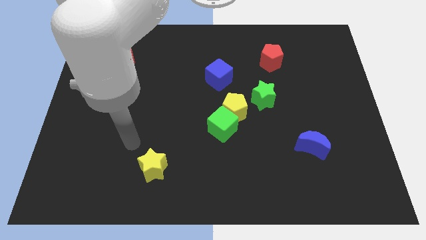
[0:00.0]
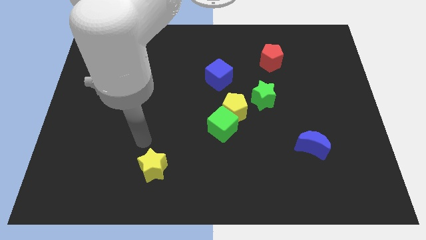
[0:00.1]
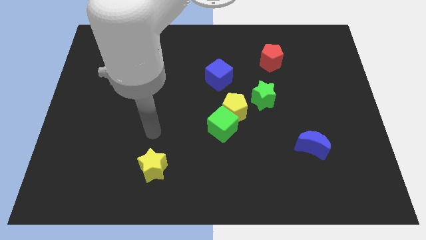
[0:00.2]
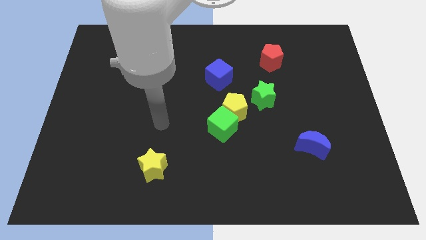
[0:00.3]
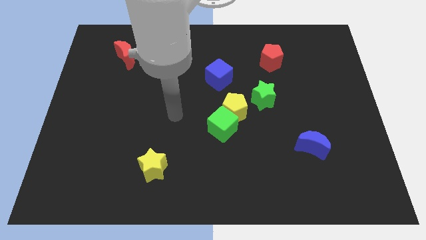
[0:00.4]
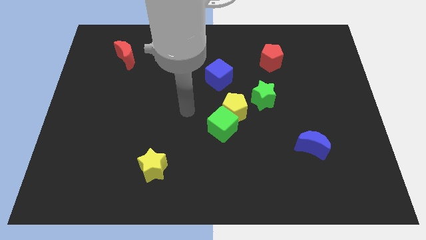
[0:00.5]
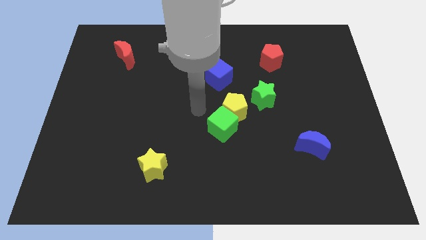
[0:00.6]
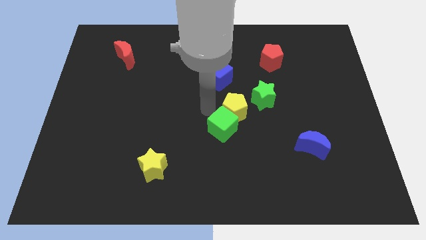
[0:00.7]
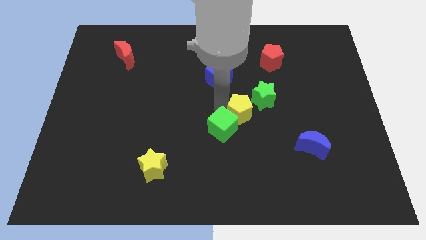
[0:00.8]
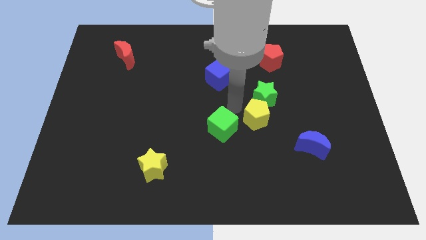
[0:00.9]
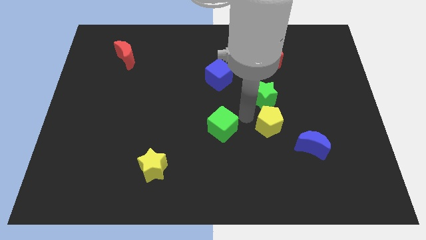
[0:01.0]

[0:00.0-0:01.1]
move the green cube away from the yellow pentagon

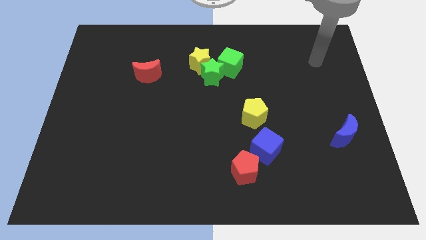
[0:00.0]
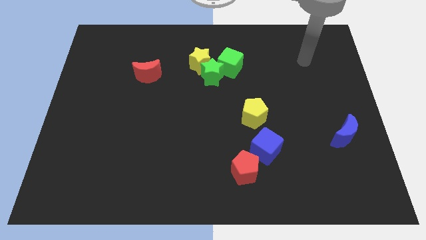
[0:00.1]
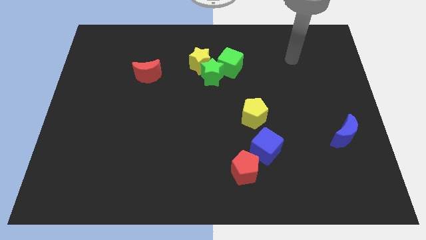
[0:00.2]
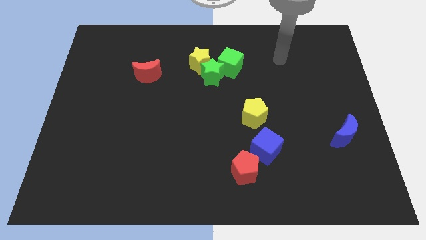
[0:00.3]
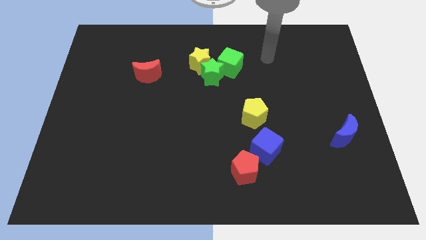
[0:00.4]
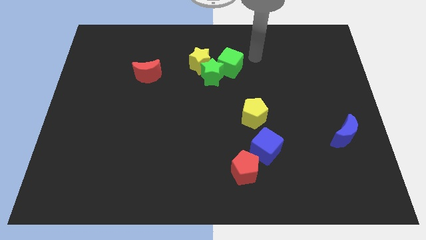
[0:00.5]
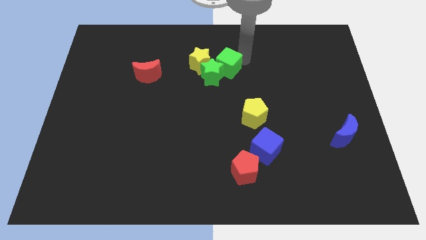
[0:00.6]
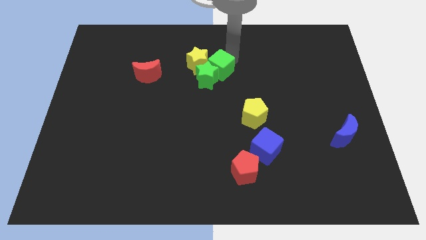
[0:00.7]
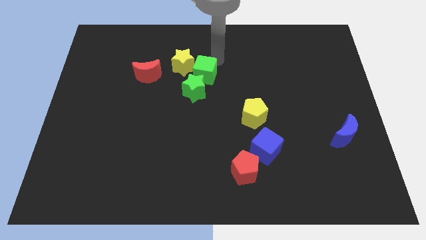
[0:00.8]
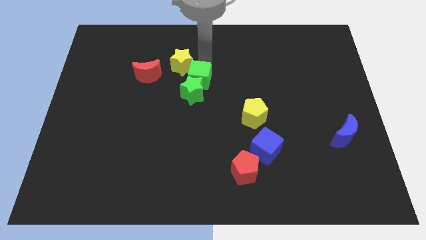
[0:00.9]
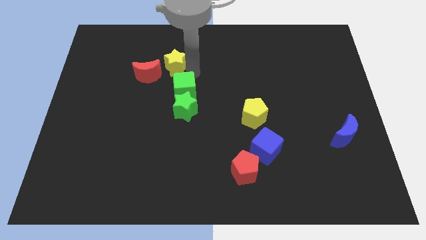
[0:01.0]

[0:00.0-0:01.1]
pull the green star apart from the yellow star and green cube

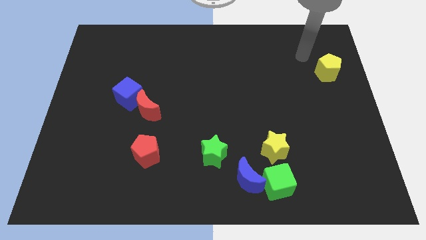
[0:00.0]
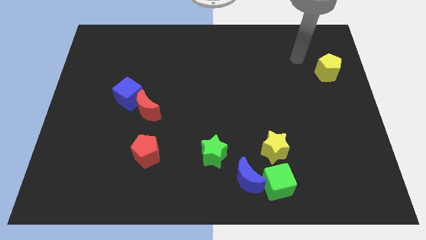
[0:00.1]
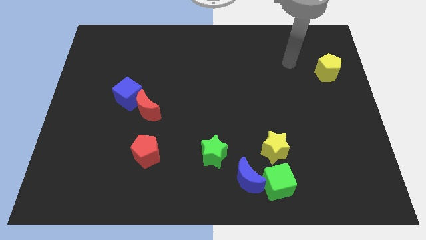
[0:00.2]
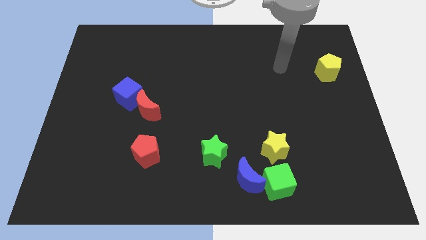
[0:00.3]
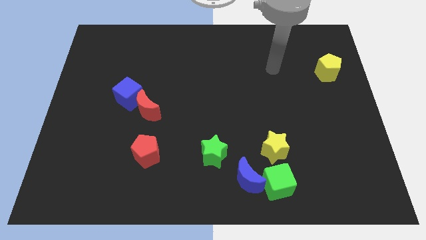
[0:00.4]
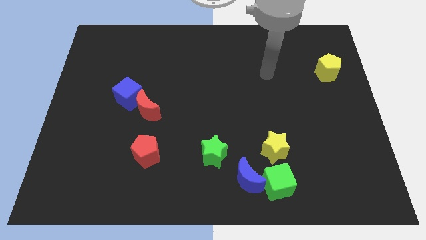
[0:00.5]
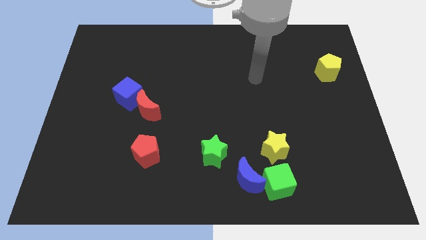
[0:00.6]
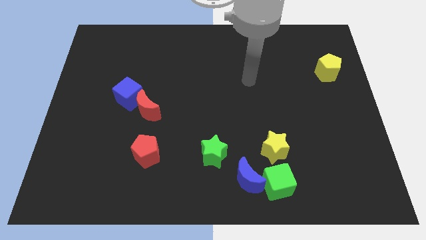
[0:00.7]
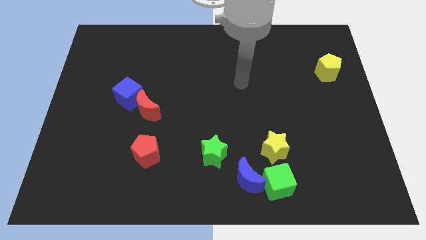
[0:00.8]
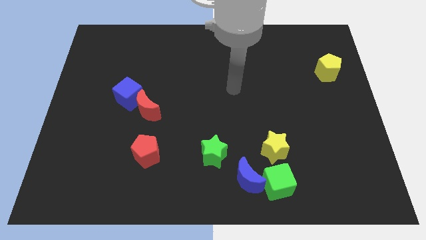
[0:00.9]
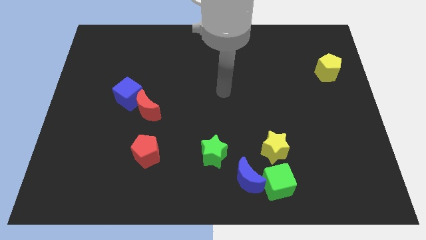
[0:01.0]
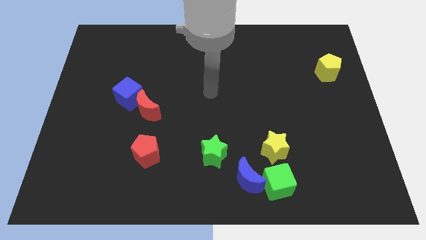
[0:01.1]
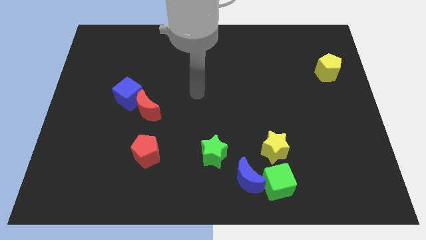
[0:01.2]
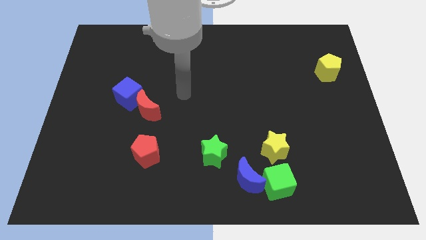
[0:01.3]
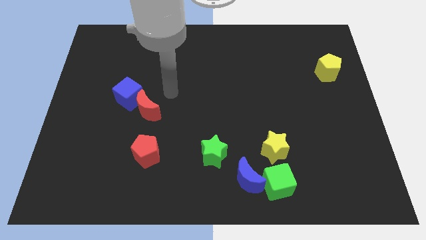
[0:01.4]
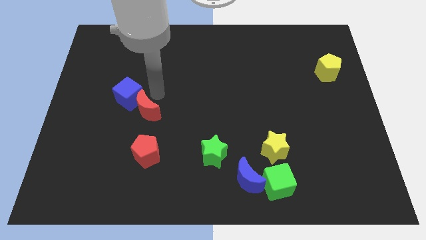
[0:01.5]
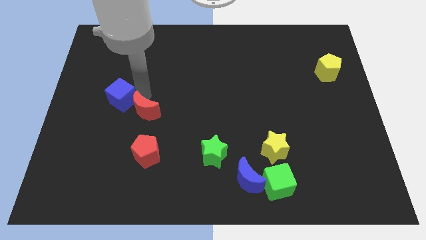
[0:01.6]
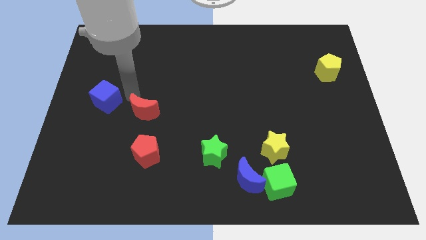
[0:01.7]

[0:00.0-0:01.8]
separate the red moon from the blue cube

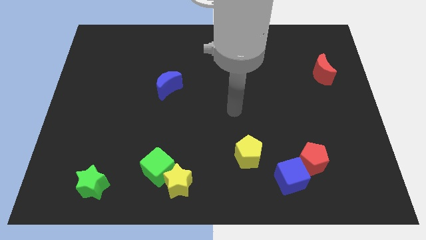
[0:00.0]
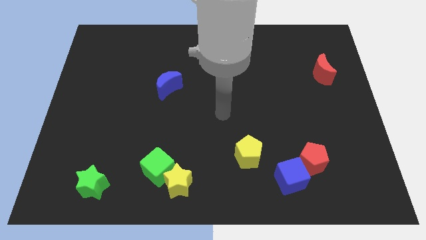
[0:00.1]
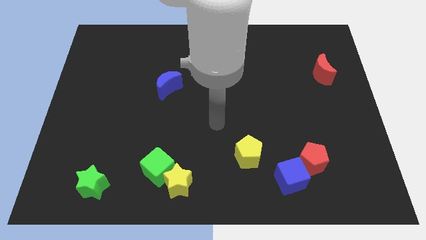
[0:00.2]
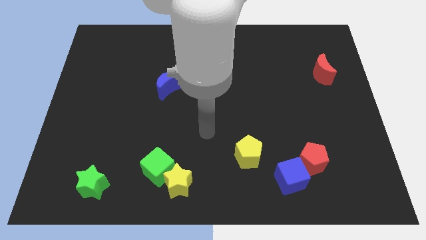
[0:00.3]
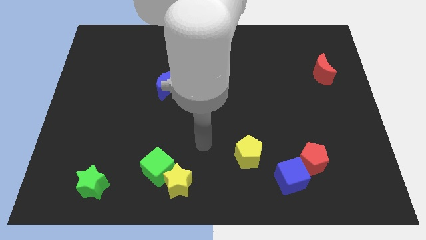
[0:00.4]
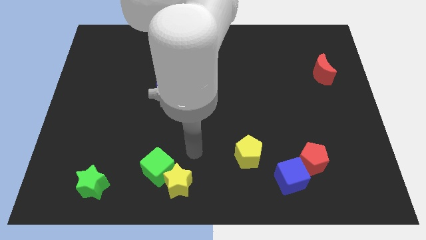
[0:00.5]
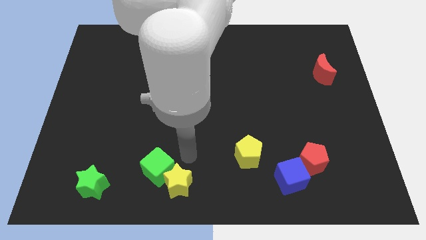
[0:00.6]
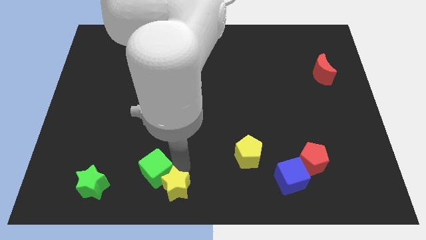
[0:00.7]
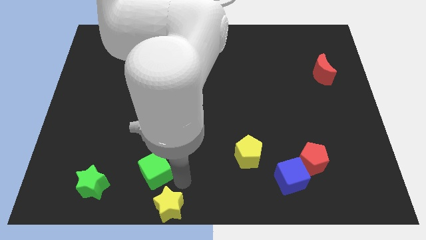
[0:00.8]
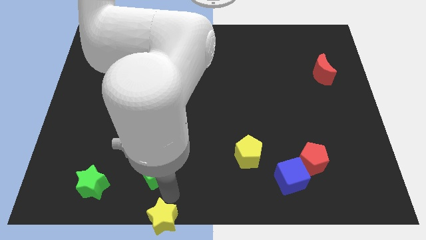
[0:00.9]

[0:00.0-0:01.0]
separate the green cube from the yellow star

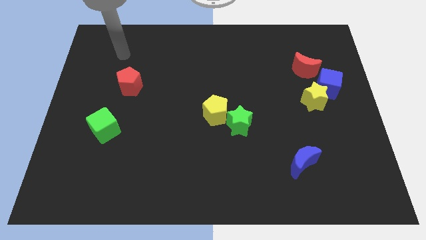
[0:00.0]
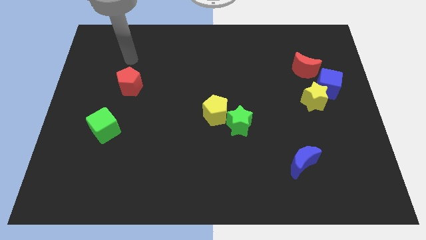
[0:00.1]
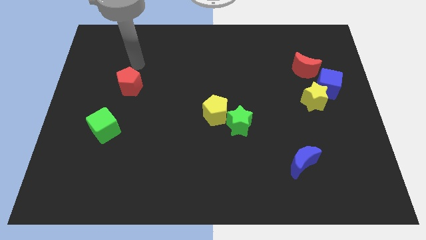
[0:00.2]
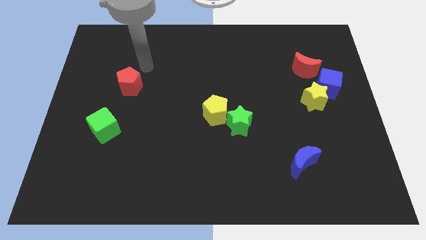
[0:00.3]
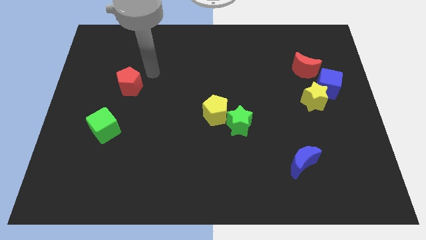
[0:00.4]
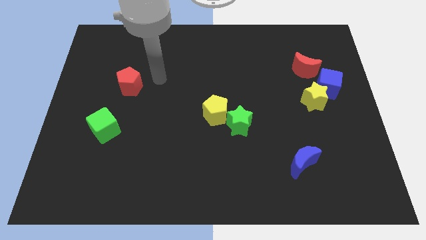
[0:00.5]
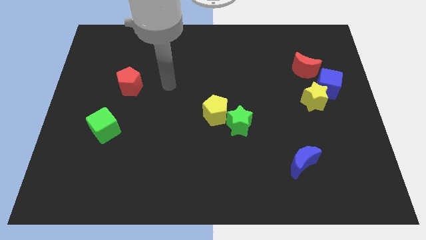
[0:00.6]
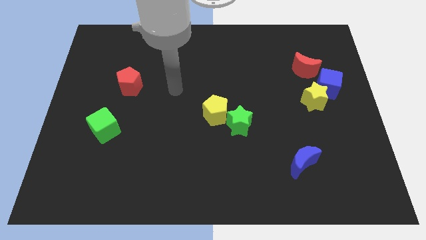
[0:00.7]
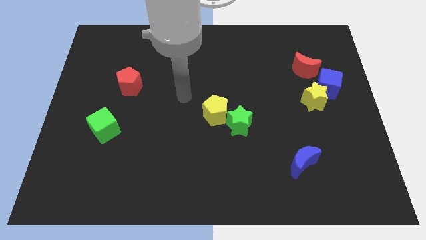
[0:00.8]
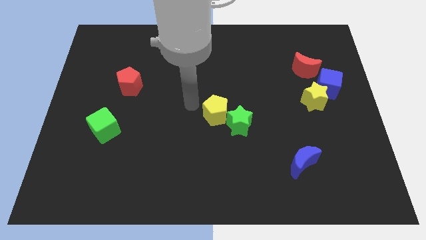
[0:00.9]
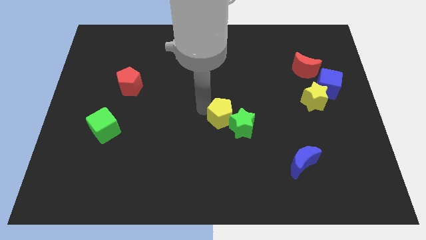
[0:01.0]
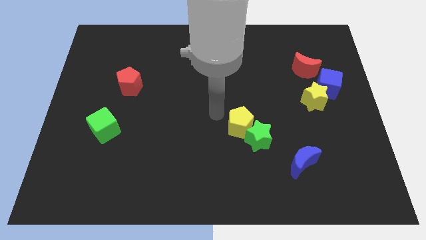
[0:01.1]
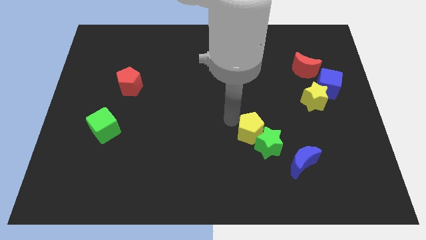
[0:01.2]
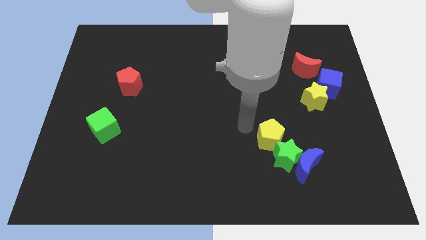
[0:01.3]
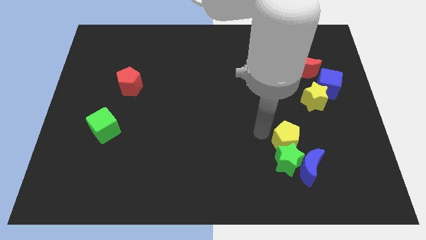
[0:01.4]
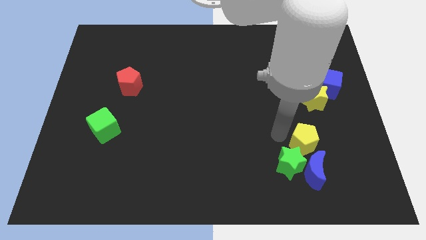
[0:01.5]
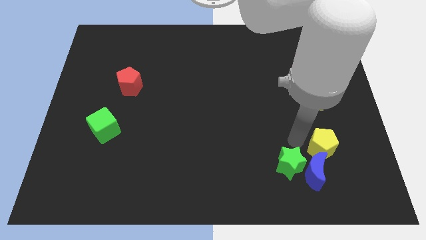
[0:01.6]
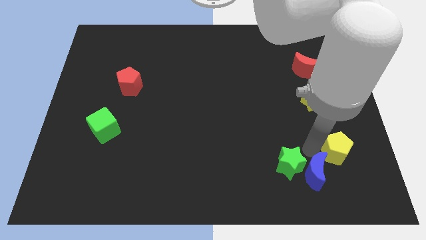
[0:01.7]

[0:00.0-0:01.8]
pull the green star apart from the yellow pentagon

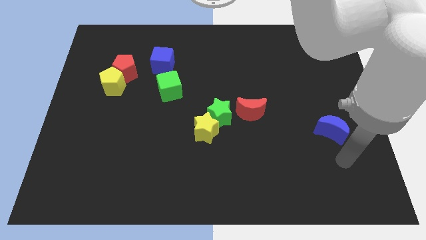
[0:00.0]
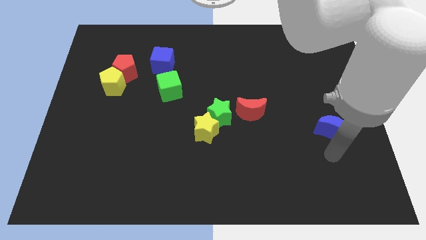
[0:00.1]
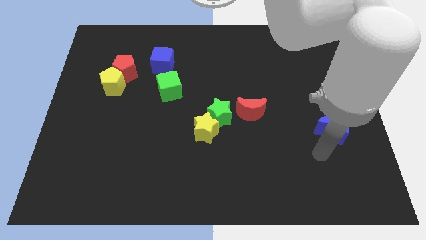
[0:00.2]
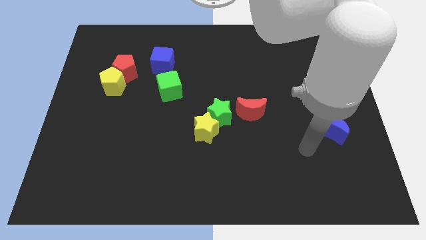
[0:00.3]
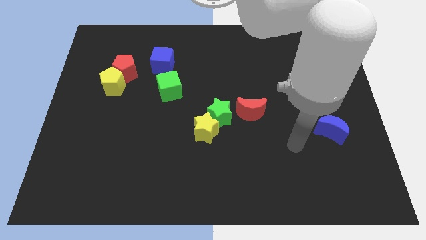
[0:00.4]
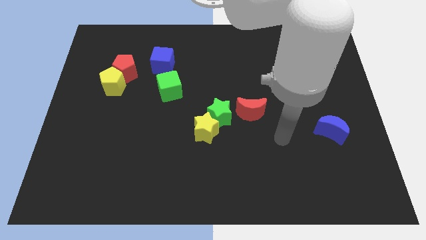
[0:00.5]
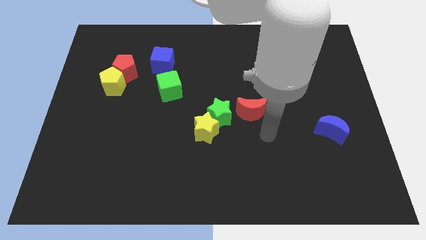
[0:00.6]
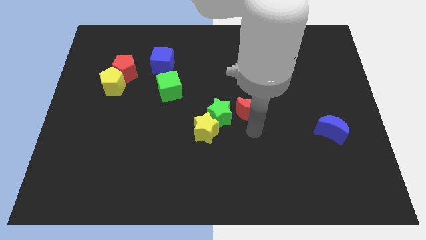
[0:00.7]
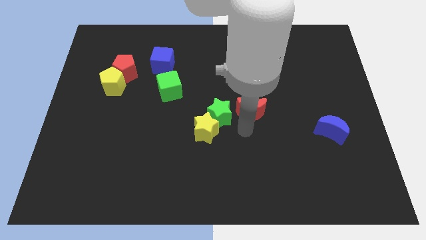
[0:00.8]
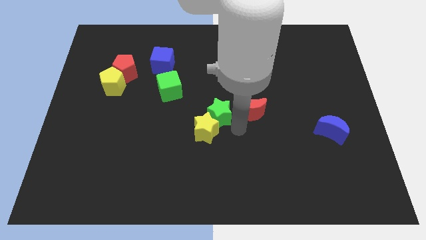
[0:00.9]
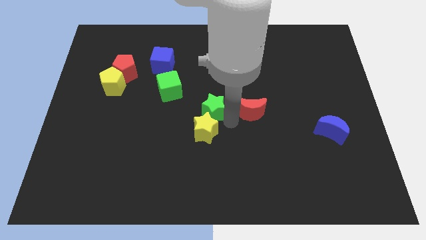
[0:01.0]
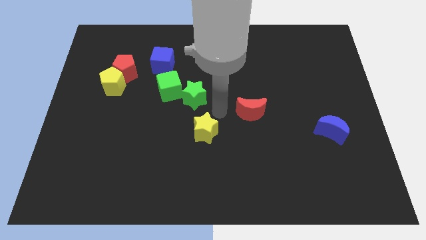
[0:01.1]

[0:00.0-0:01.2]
separate the yellow star from the green star

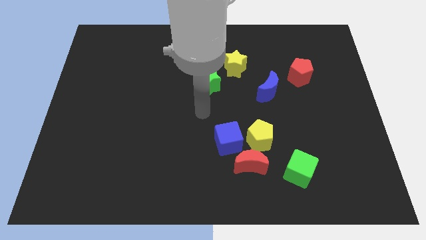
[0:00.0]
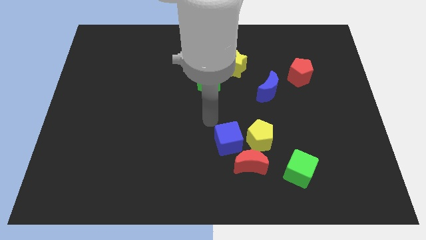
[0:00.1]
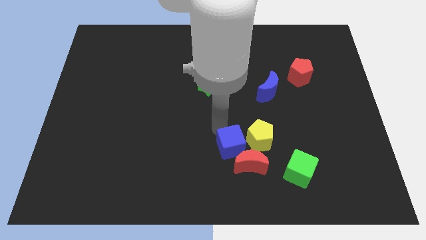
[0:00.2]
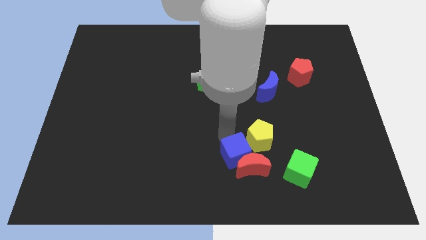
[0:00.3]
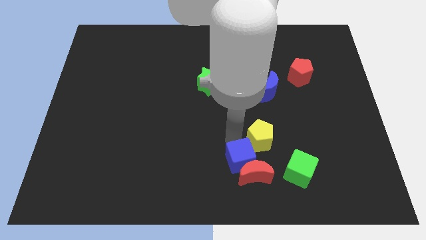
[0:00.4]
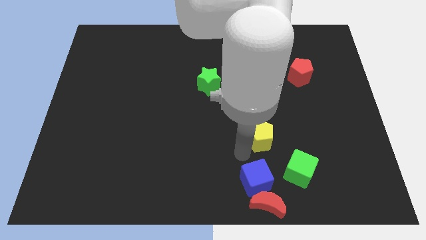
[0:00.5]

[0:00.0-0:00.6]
separate the yellow pentagon from the red moon and blue cube

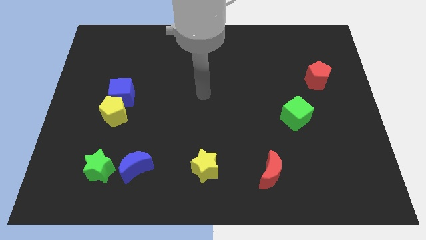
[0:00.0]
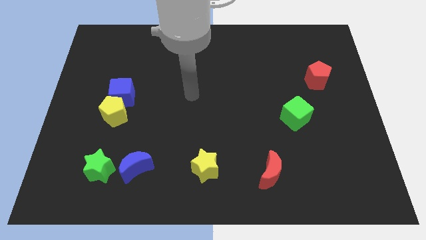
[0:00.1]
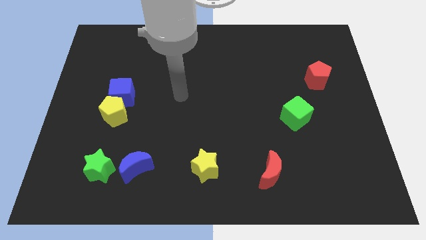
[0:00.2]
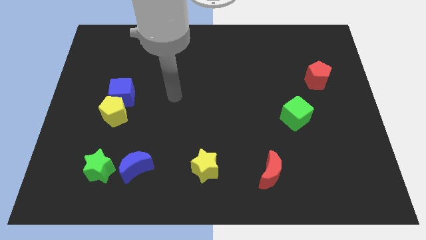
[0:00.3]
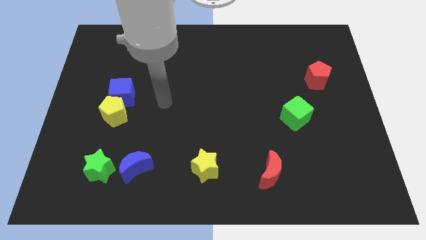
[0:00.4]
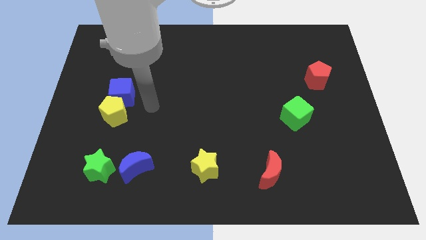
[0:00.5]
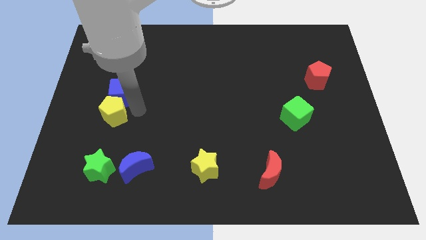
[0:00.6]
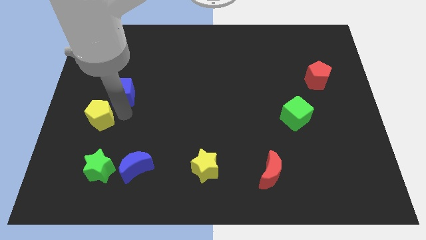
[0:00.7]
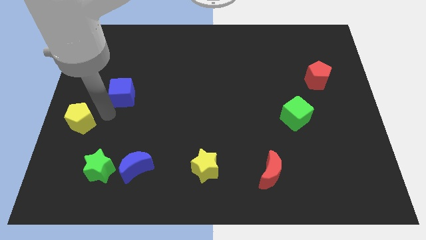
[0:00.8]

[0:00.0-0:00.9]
move the blue cube away from the yellow pentagon
